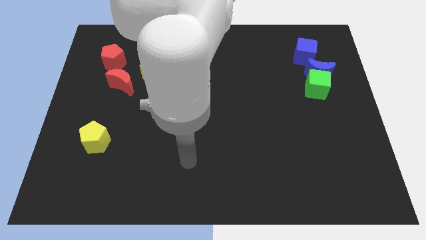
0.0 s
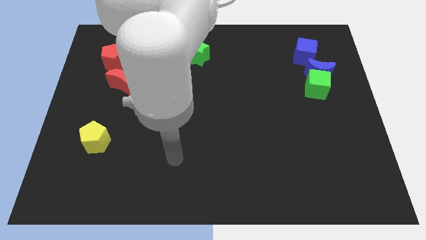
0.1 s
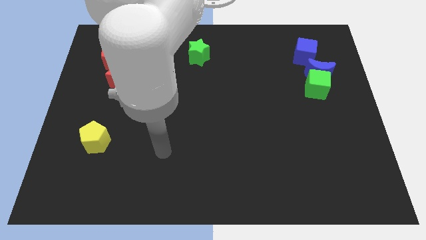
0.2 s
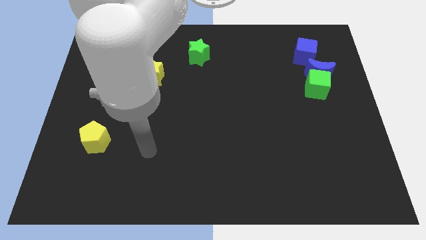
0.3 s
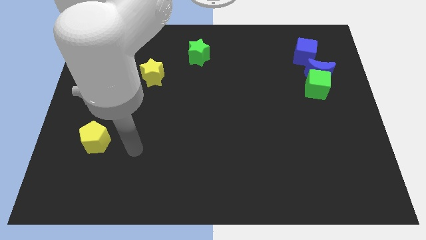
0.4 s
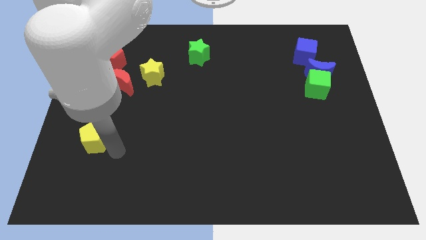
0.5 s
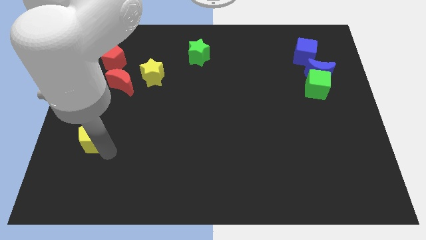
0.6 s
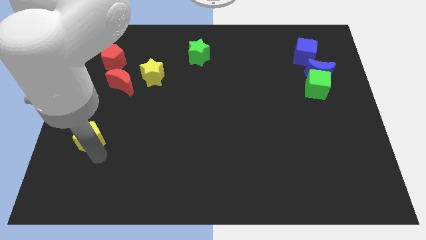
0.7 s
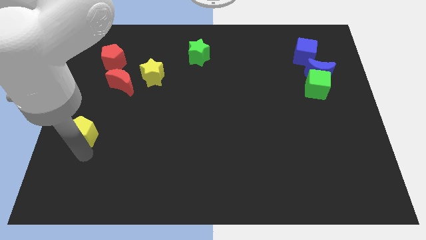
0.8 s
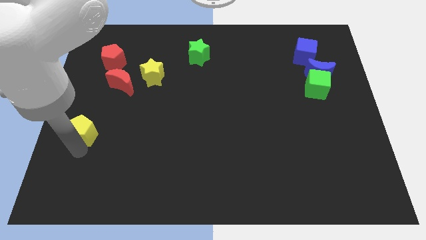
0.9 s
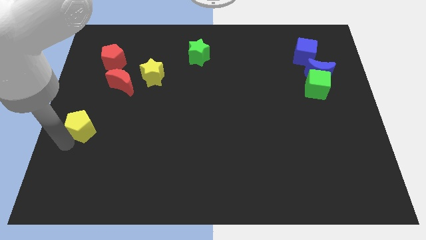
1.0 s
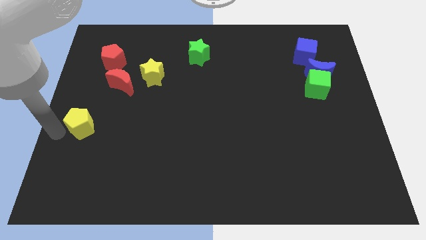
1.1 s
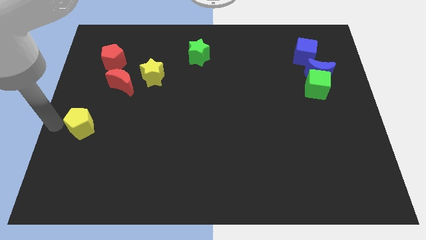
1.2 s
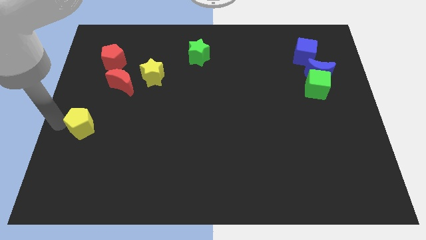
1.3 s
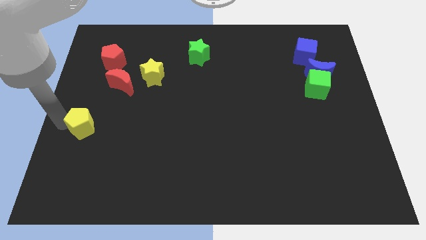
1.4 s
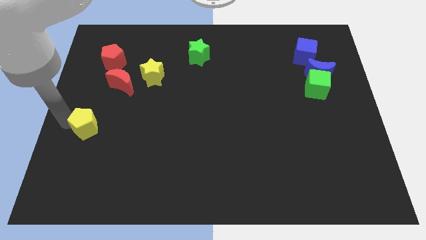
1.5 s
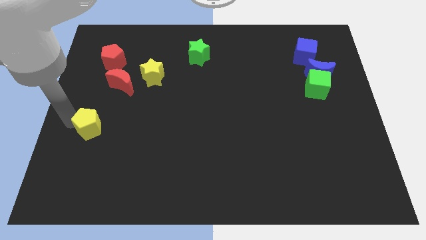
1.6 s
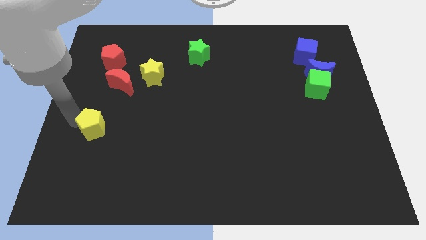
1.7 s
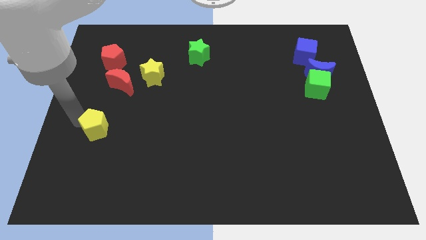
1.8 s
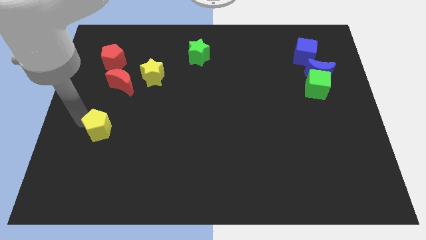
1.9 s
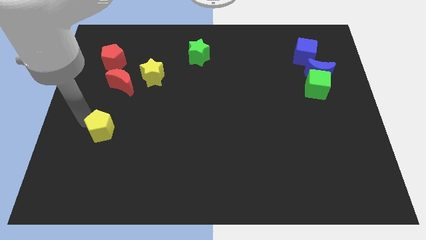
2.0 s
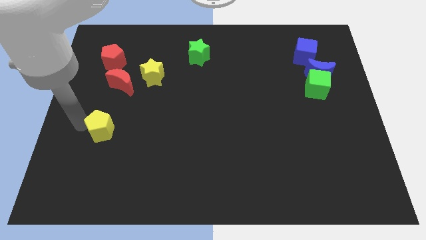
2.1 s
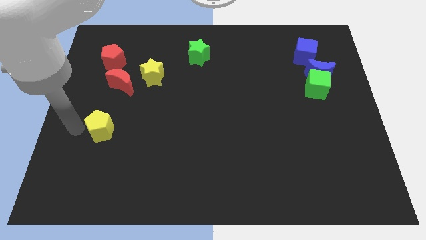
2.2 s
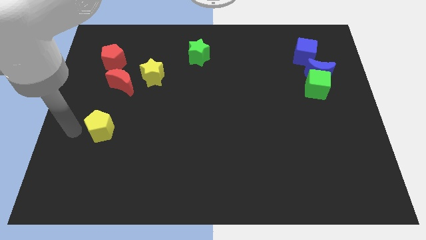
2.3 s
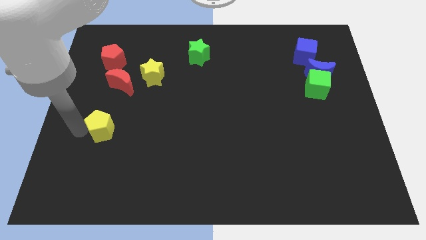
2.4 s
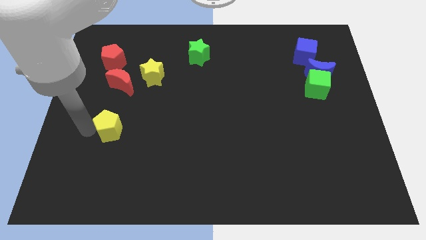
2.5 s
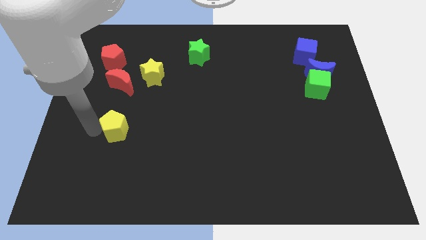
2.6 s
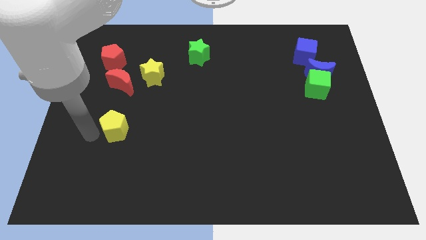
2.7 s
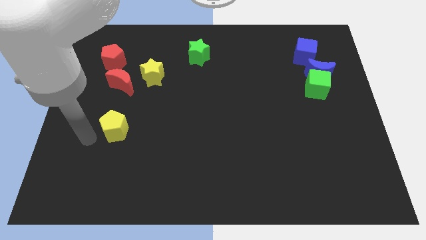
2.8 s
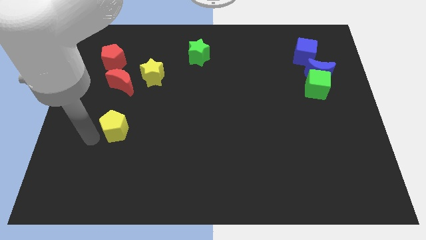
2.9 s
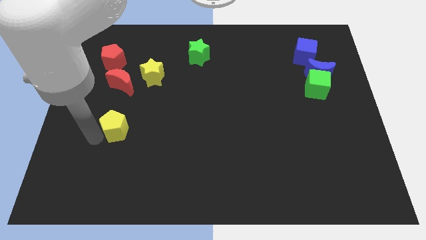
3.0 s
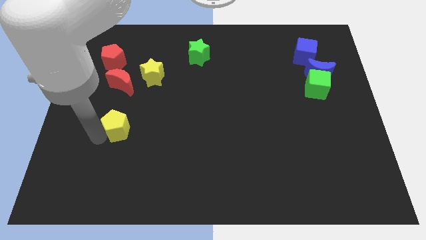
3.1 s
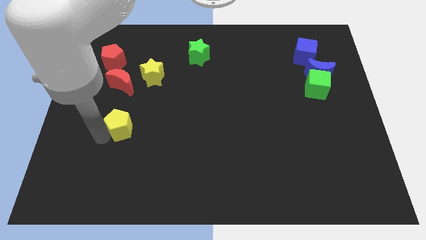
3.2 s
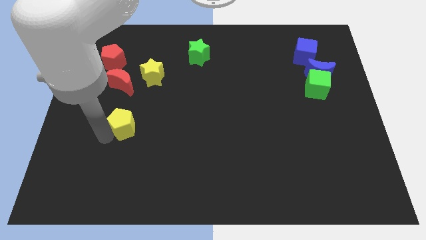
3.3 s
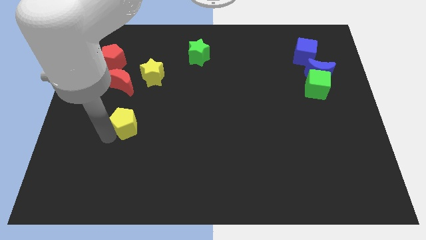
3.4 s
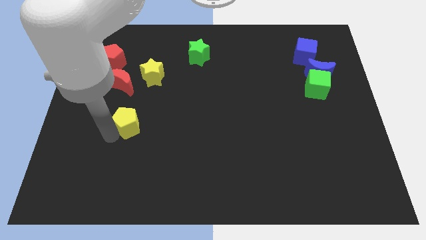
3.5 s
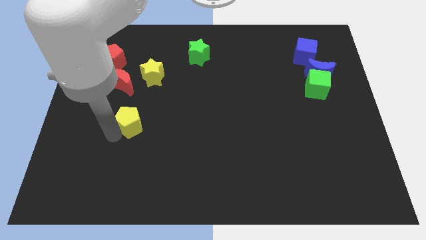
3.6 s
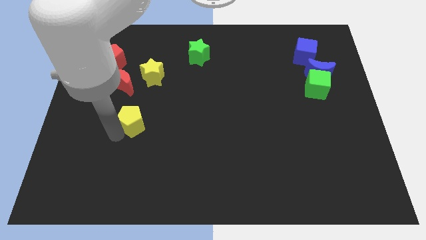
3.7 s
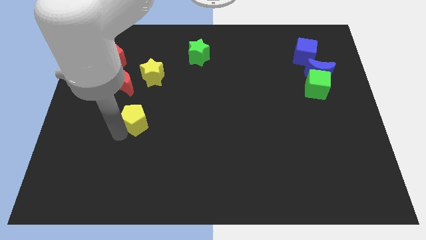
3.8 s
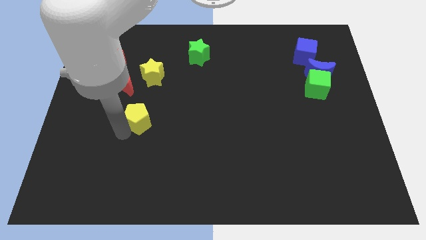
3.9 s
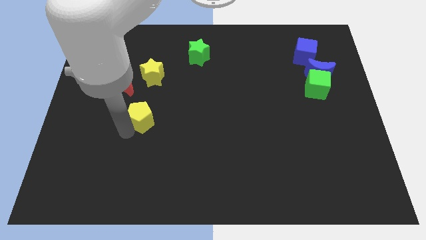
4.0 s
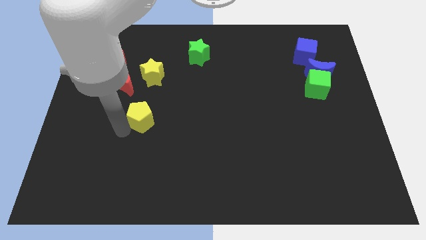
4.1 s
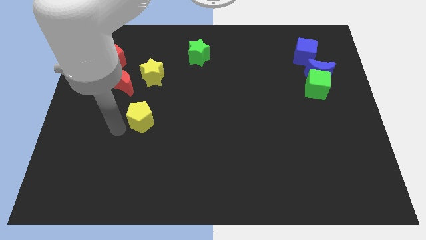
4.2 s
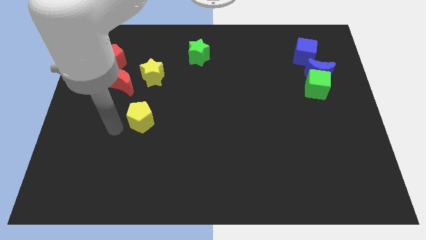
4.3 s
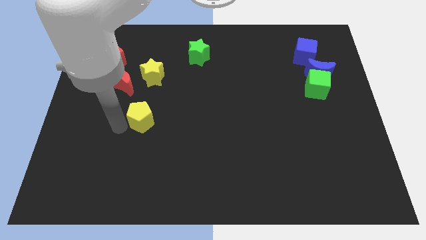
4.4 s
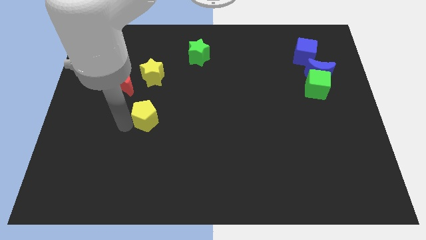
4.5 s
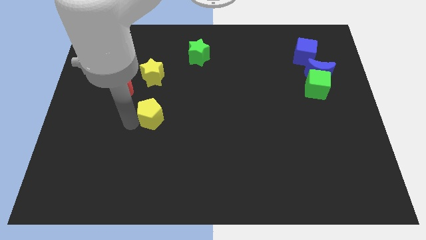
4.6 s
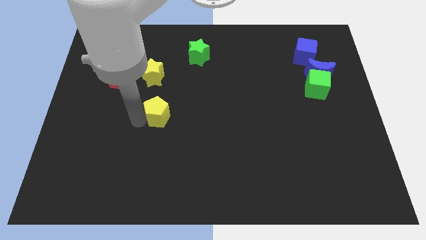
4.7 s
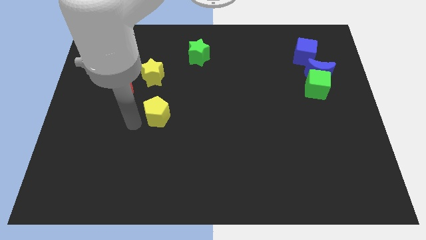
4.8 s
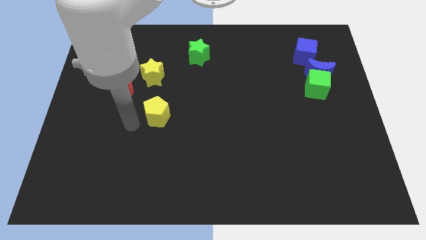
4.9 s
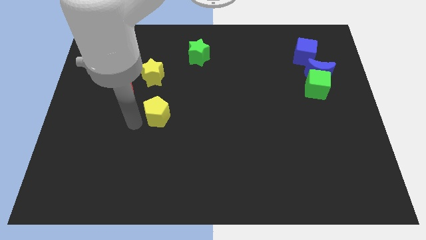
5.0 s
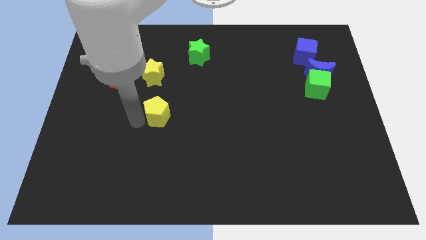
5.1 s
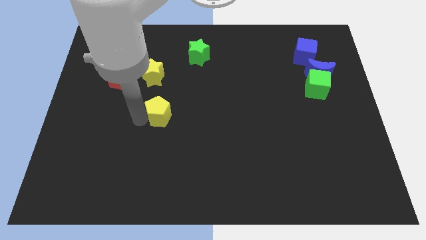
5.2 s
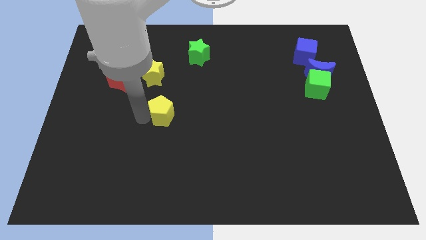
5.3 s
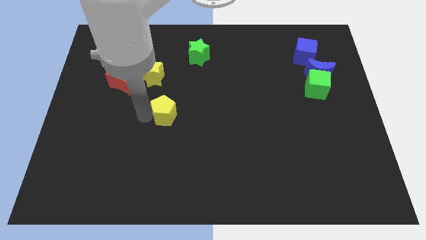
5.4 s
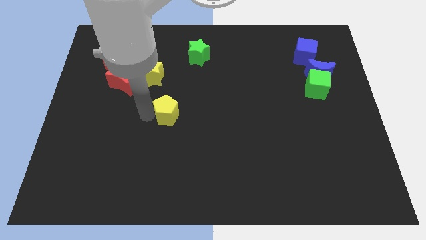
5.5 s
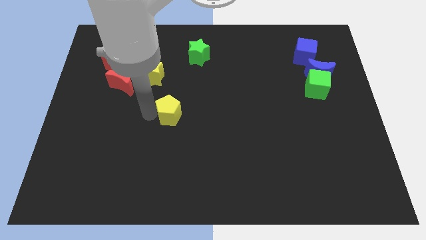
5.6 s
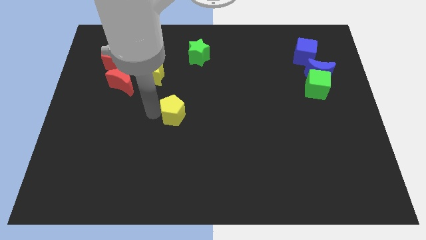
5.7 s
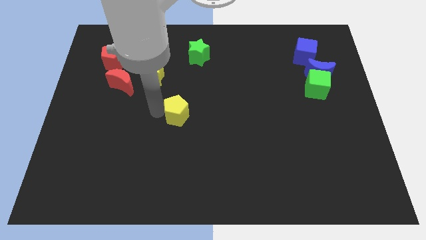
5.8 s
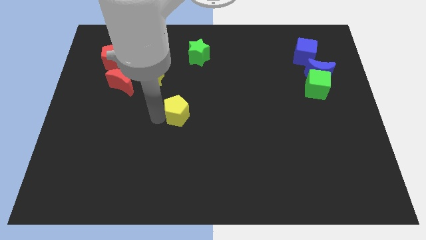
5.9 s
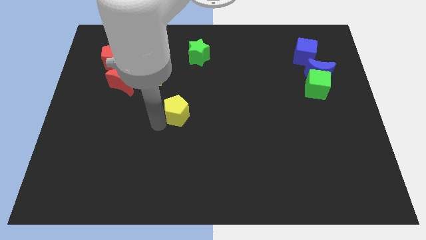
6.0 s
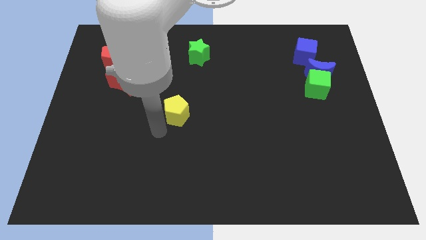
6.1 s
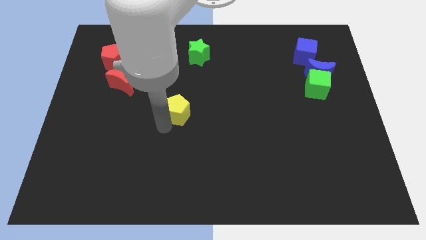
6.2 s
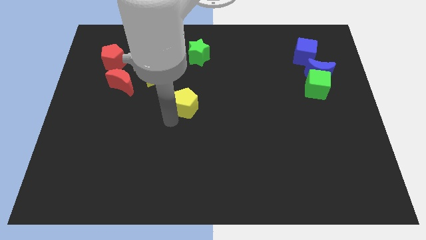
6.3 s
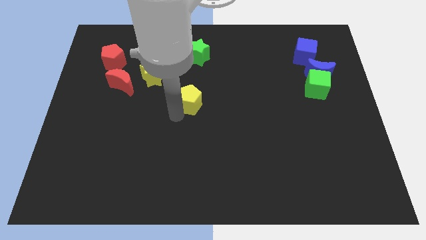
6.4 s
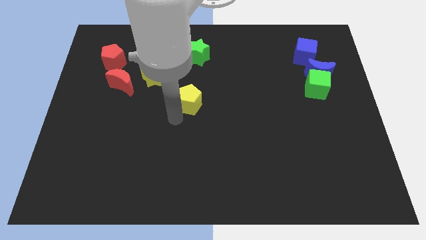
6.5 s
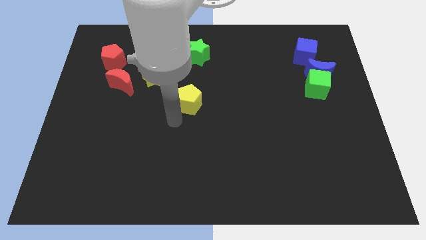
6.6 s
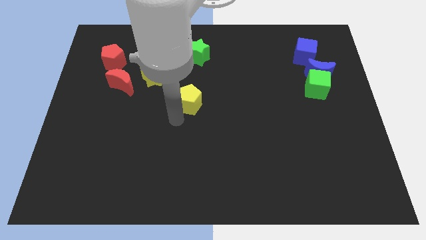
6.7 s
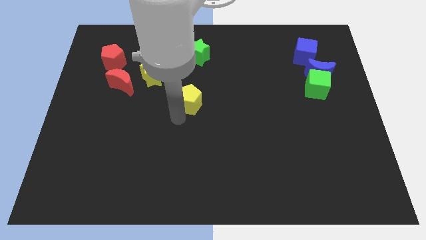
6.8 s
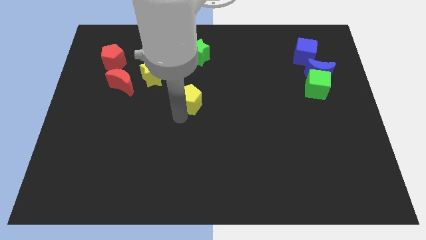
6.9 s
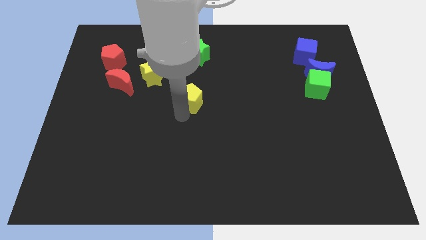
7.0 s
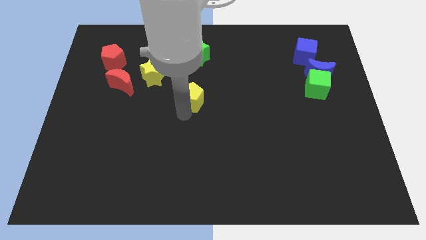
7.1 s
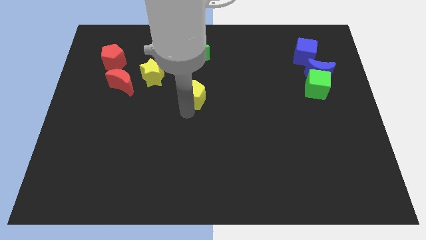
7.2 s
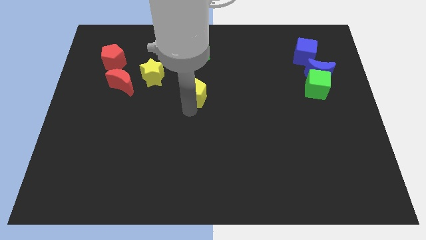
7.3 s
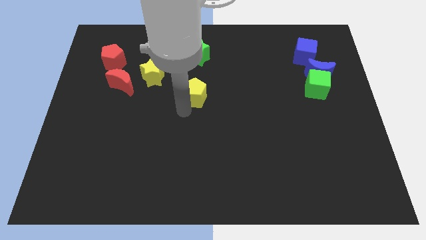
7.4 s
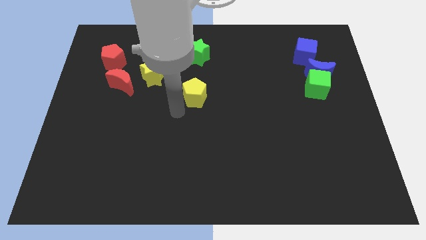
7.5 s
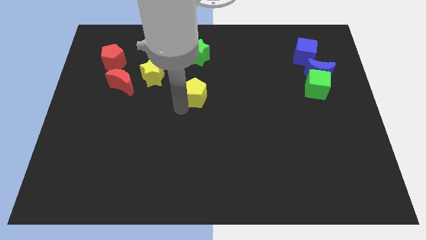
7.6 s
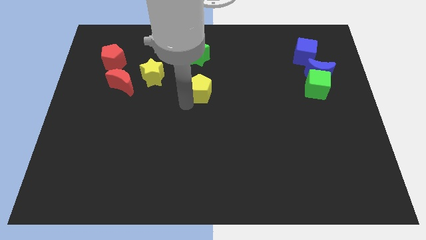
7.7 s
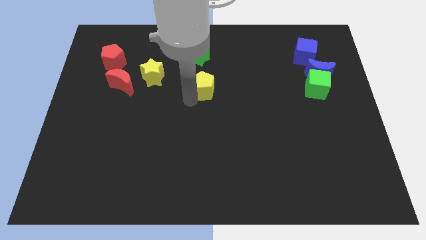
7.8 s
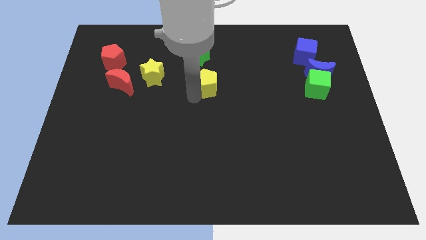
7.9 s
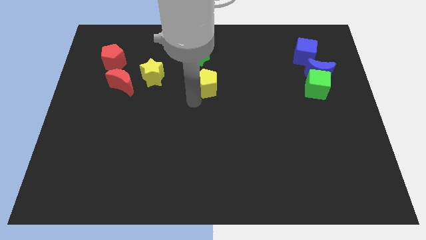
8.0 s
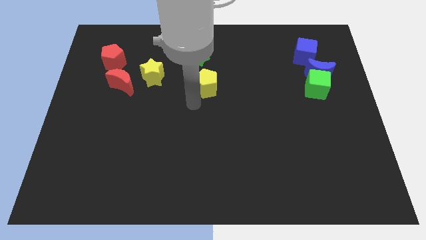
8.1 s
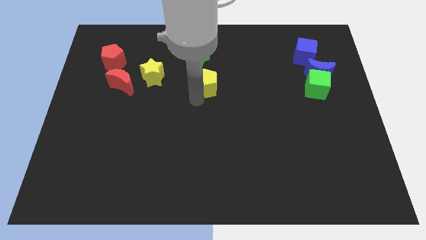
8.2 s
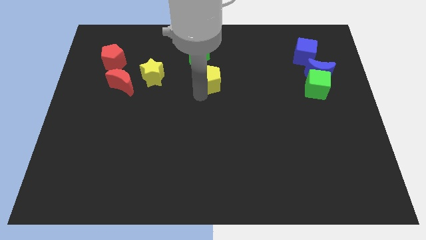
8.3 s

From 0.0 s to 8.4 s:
move the yellow pentagon to the bottom right of the green star
